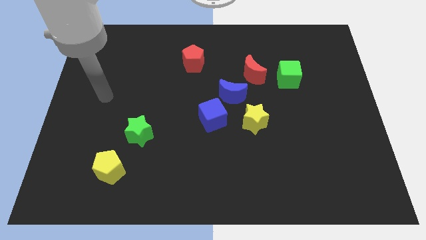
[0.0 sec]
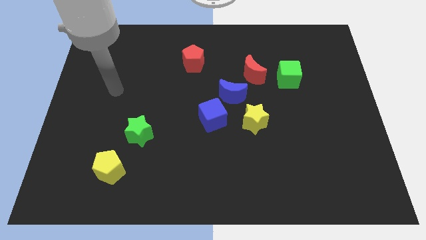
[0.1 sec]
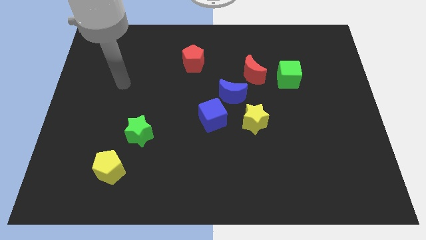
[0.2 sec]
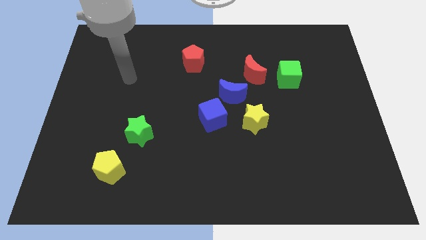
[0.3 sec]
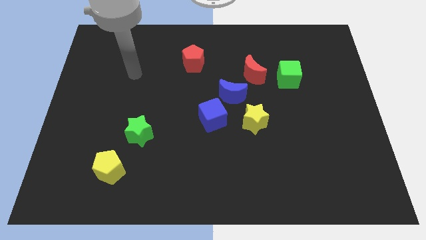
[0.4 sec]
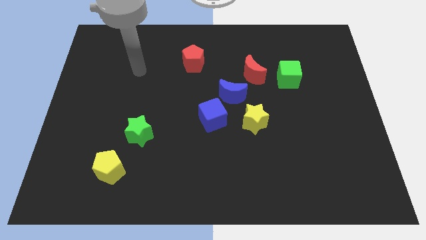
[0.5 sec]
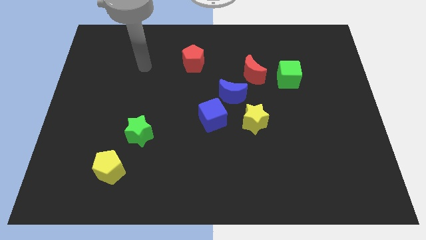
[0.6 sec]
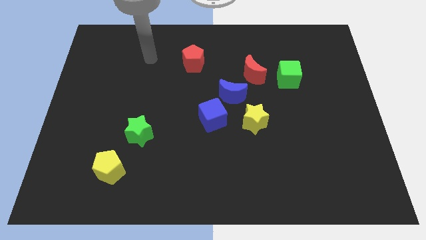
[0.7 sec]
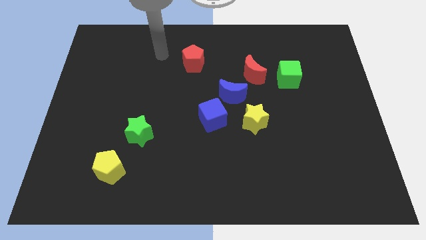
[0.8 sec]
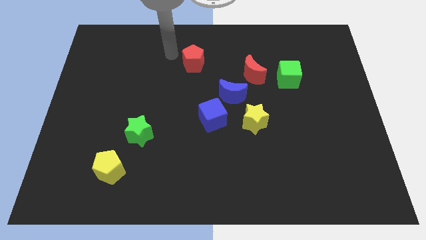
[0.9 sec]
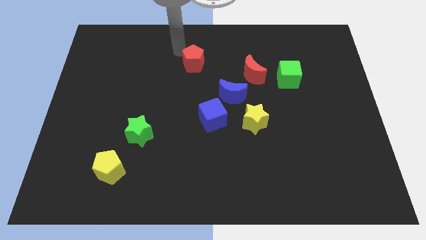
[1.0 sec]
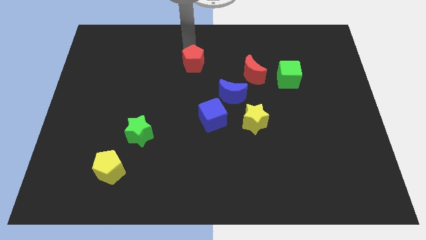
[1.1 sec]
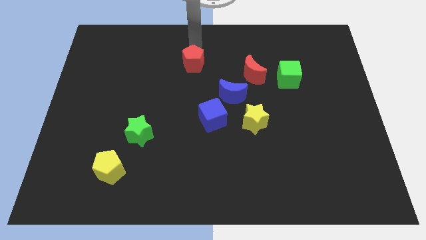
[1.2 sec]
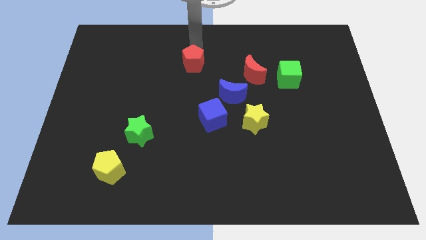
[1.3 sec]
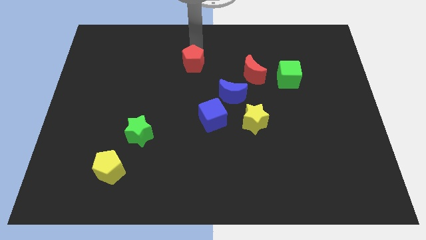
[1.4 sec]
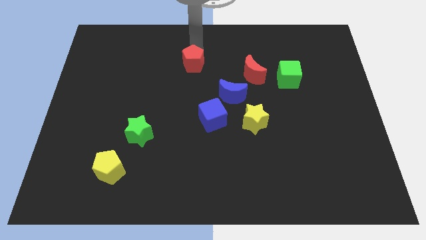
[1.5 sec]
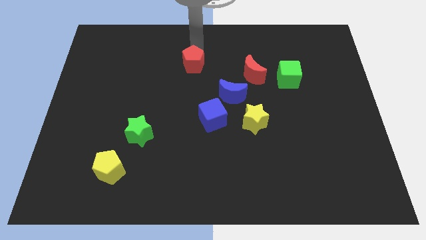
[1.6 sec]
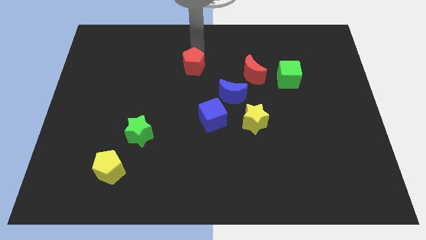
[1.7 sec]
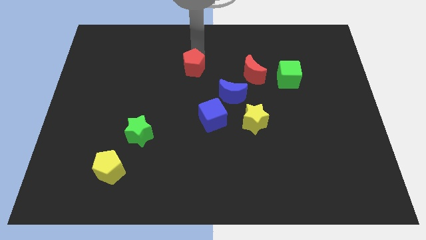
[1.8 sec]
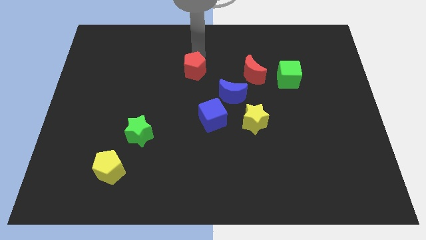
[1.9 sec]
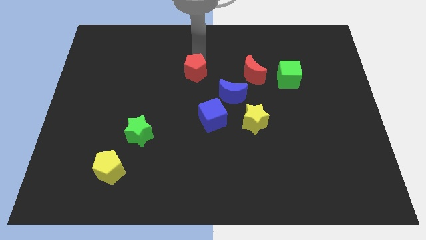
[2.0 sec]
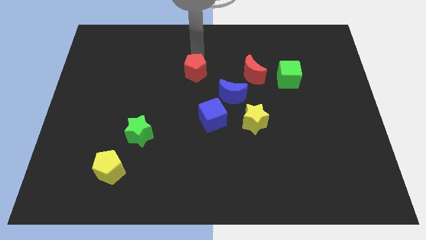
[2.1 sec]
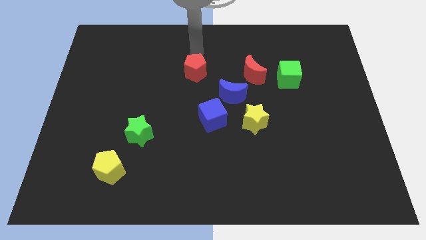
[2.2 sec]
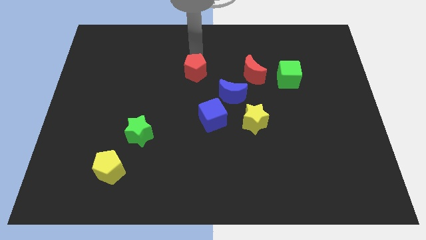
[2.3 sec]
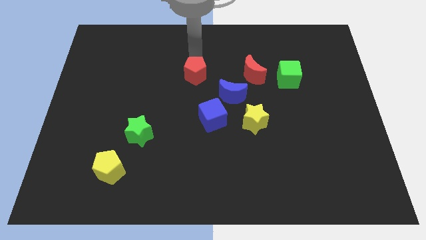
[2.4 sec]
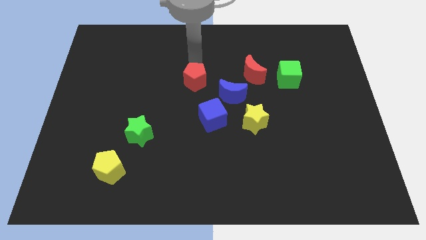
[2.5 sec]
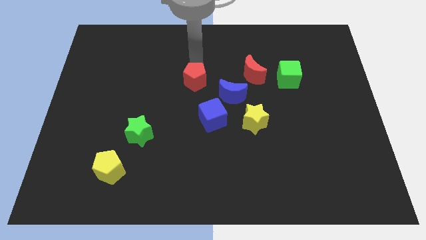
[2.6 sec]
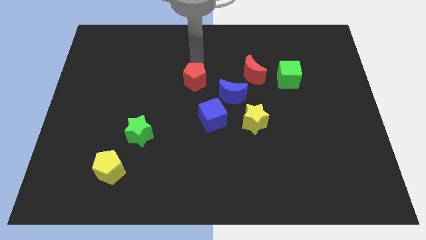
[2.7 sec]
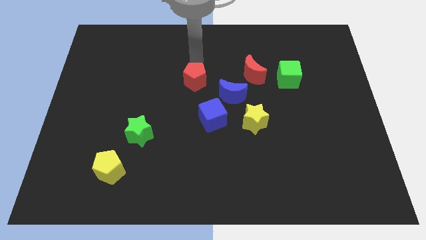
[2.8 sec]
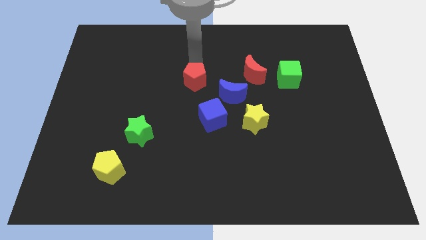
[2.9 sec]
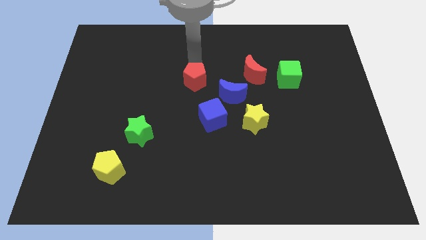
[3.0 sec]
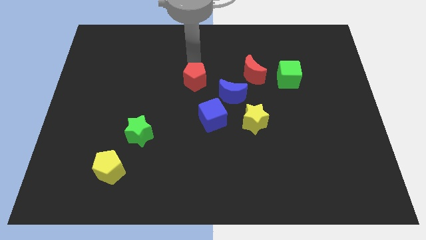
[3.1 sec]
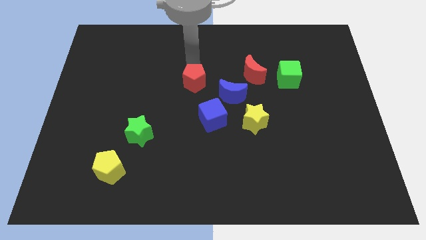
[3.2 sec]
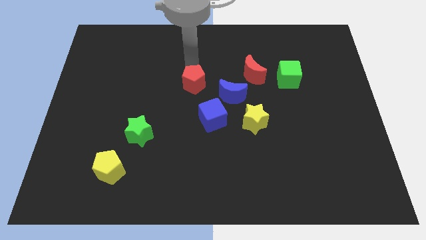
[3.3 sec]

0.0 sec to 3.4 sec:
slightly slide the red pentagon downwards

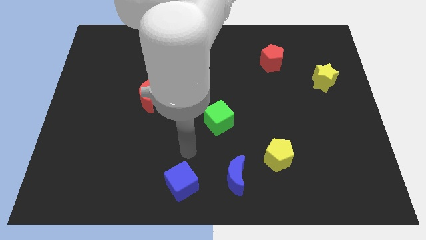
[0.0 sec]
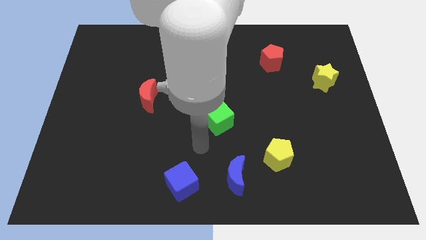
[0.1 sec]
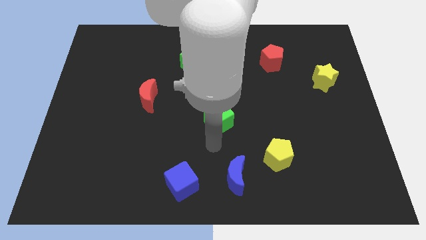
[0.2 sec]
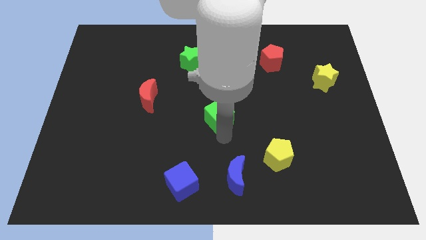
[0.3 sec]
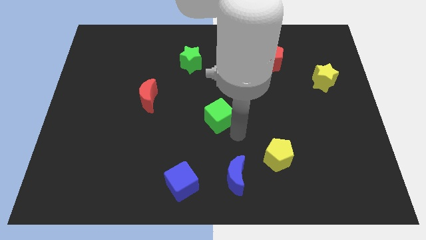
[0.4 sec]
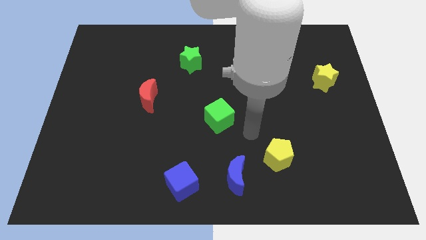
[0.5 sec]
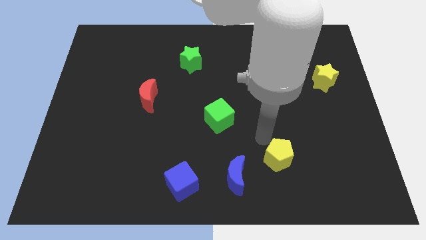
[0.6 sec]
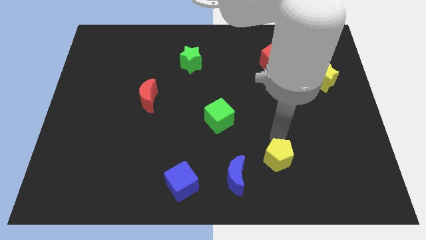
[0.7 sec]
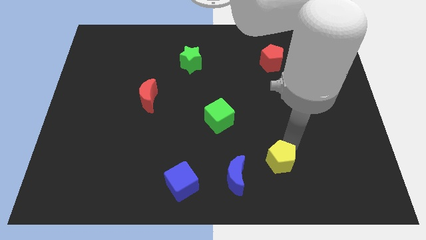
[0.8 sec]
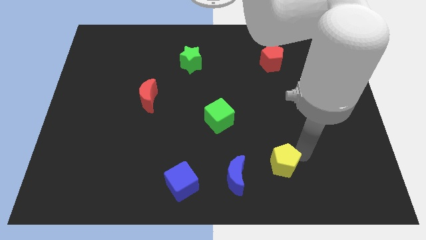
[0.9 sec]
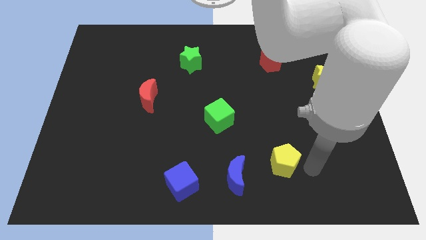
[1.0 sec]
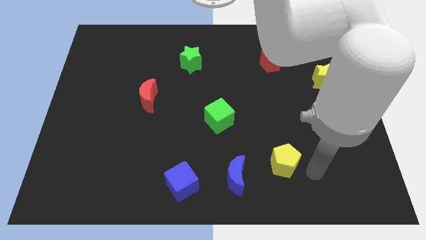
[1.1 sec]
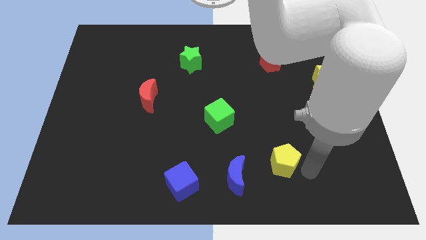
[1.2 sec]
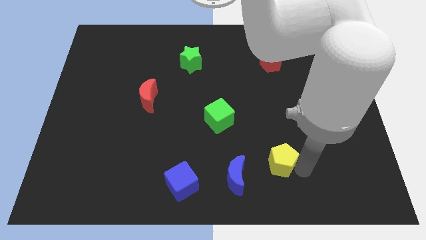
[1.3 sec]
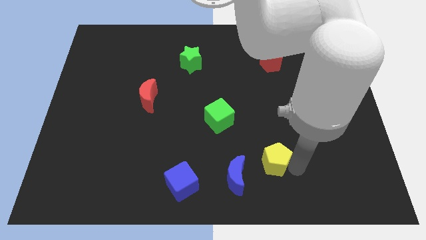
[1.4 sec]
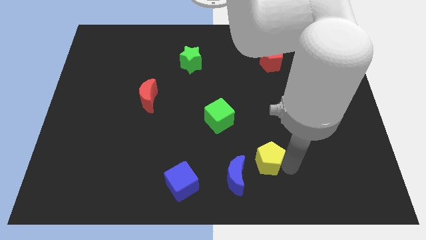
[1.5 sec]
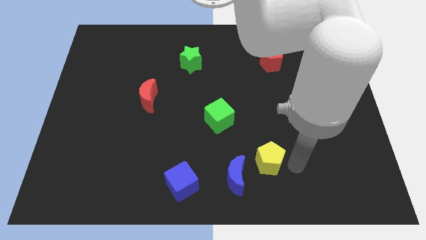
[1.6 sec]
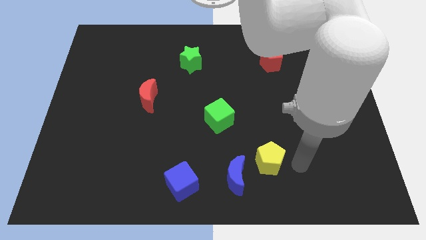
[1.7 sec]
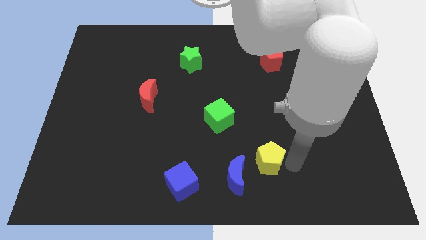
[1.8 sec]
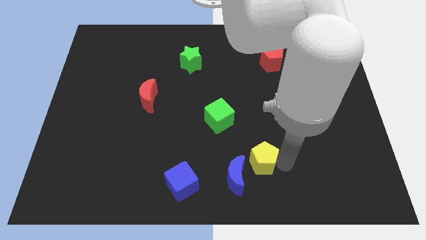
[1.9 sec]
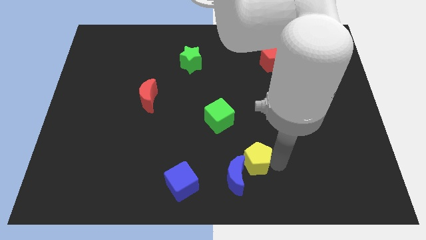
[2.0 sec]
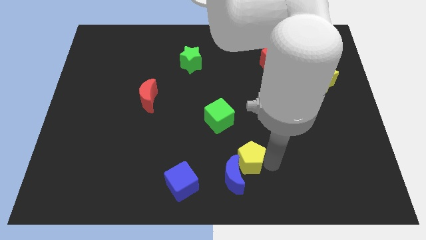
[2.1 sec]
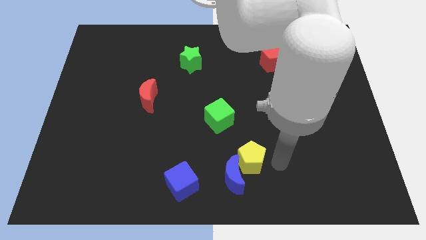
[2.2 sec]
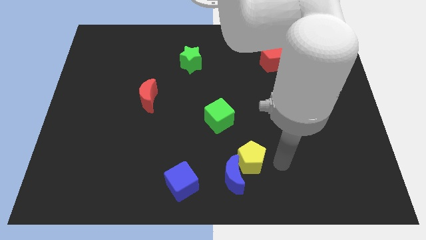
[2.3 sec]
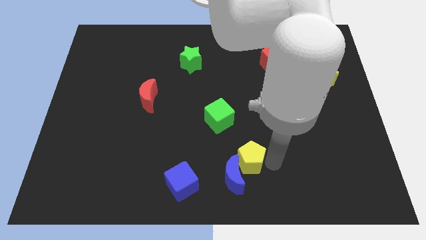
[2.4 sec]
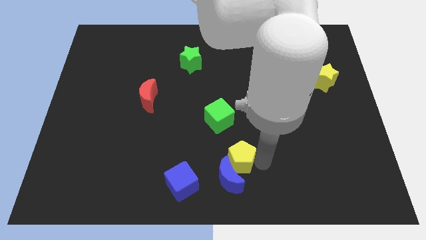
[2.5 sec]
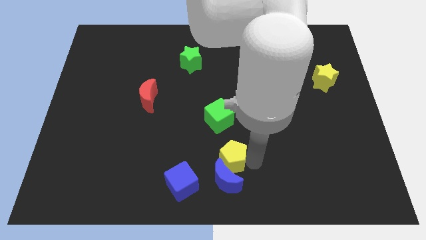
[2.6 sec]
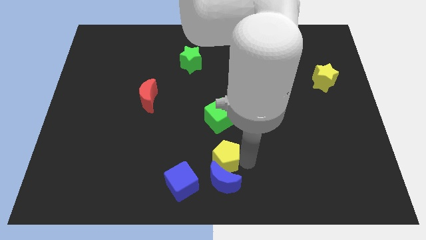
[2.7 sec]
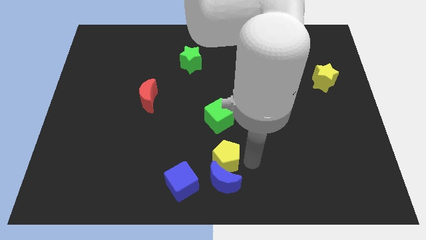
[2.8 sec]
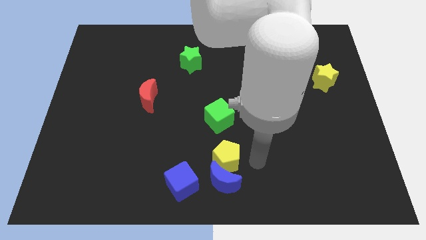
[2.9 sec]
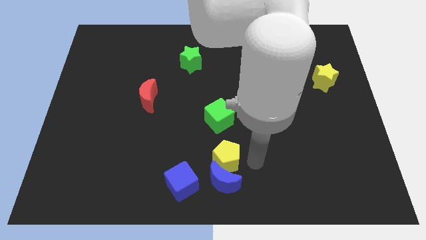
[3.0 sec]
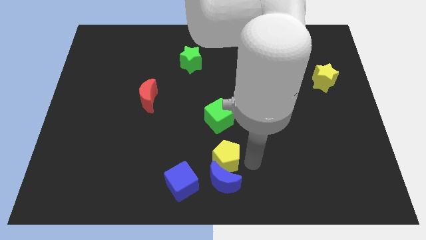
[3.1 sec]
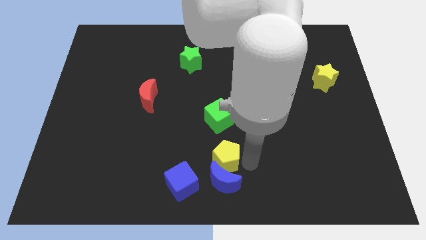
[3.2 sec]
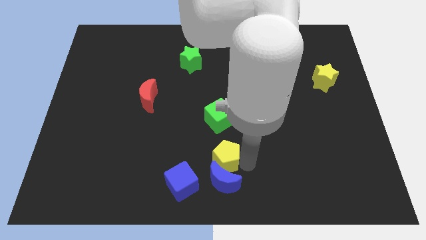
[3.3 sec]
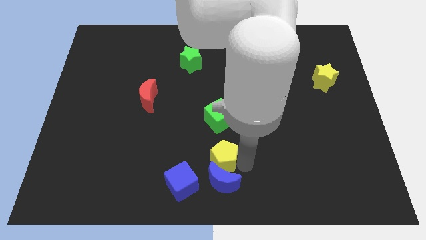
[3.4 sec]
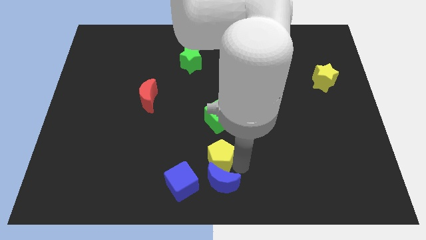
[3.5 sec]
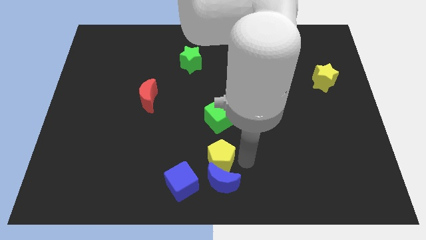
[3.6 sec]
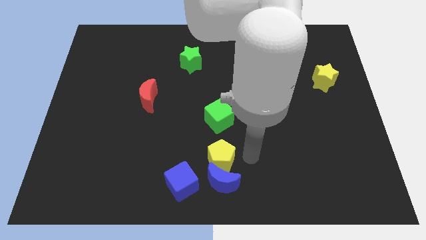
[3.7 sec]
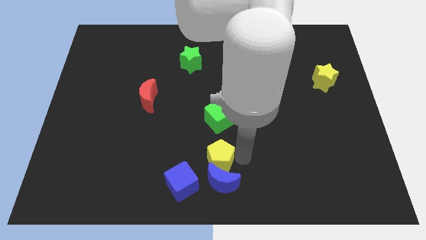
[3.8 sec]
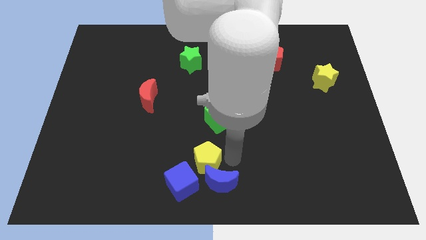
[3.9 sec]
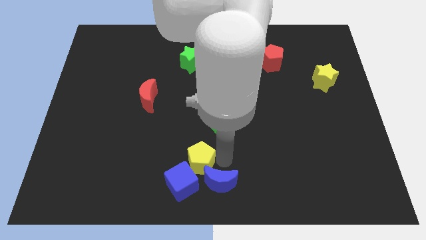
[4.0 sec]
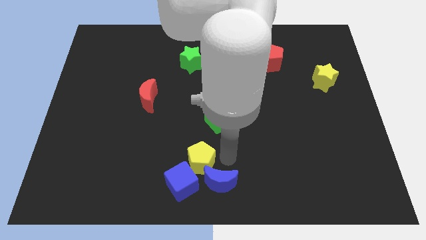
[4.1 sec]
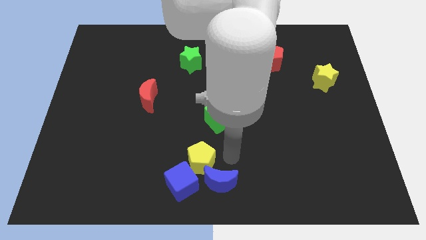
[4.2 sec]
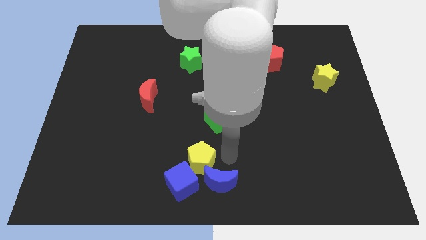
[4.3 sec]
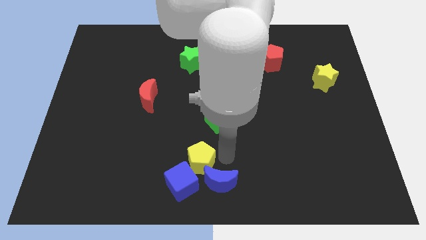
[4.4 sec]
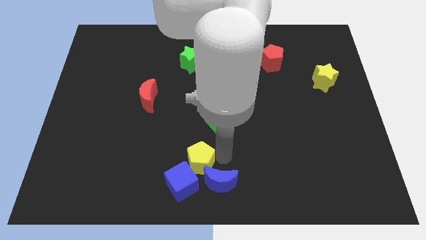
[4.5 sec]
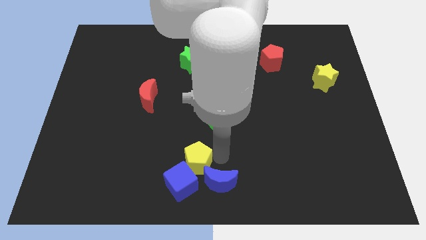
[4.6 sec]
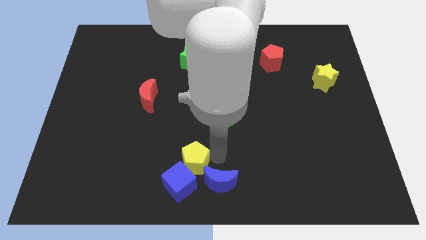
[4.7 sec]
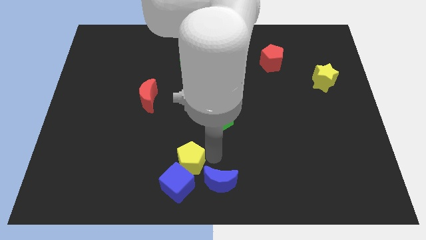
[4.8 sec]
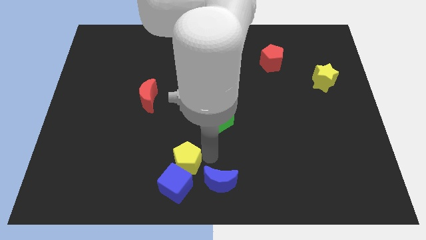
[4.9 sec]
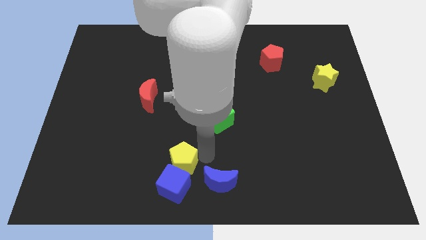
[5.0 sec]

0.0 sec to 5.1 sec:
push the yellow pentagon to the left
